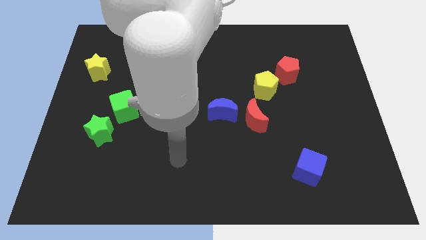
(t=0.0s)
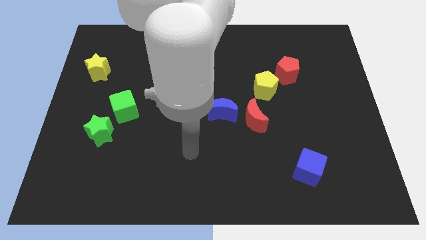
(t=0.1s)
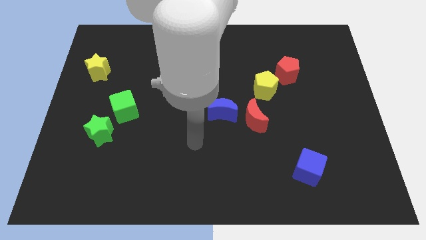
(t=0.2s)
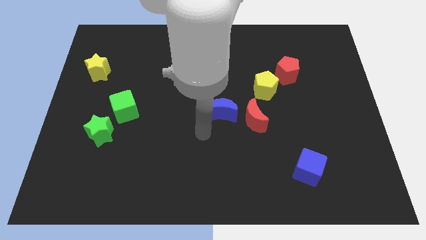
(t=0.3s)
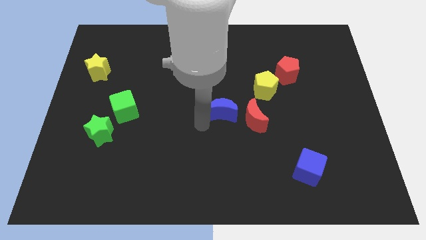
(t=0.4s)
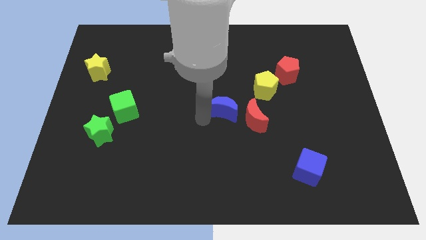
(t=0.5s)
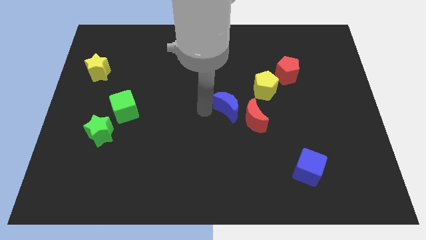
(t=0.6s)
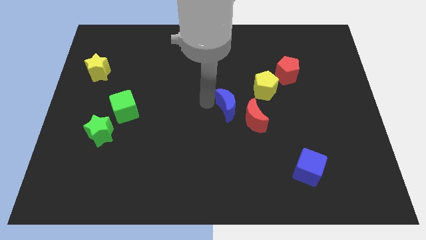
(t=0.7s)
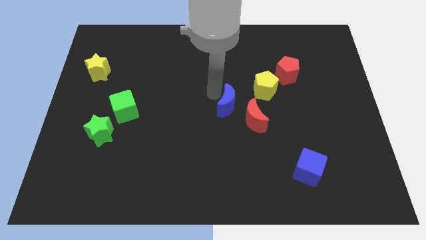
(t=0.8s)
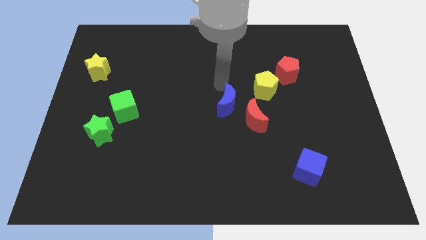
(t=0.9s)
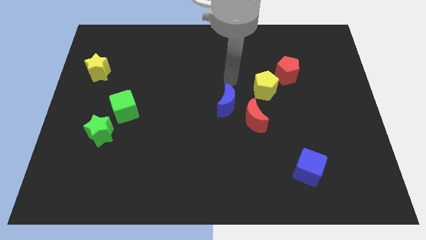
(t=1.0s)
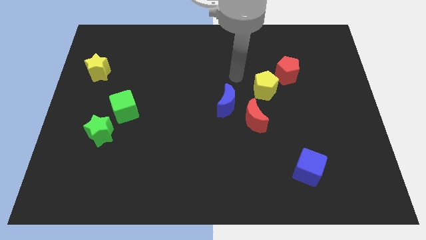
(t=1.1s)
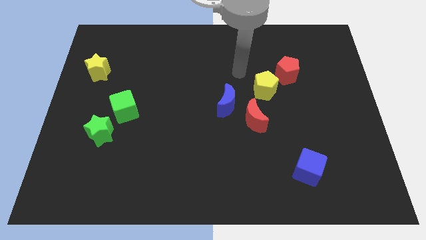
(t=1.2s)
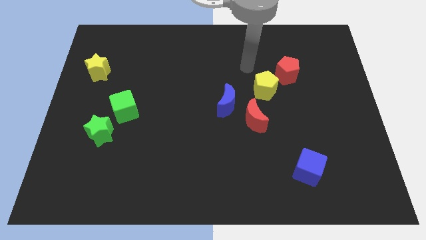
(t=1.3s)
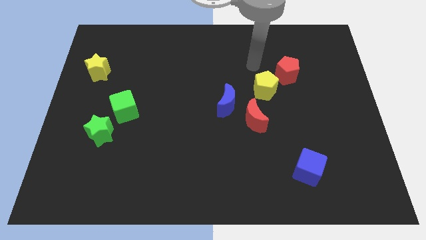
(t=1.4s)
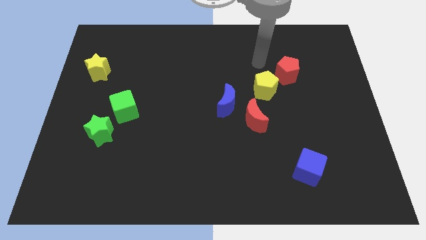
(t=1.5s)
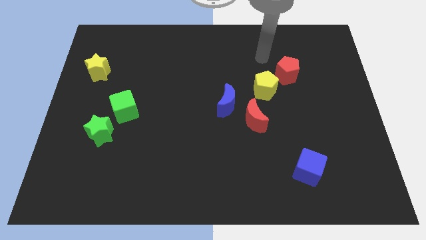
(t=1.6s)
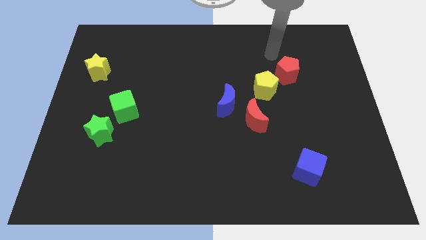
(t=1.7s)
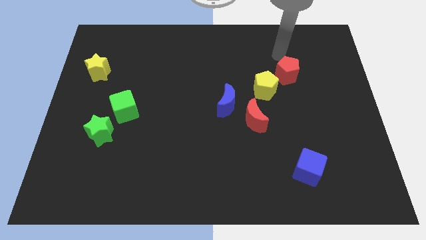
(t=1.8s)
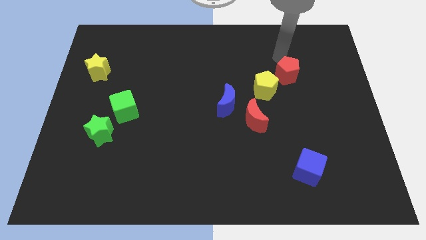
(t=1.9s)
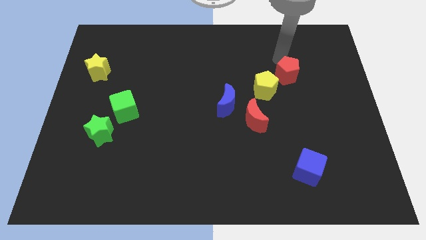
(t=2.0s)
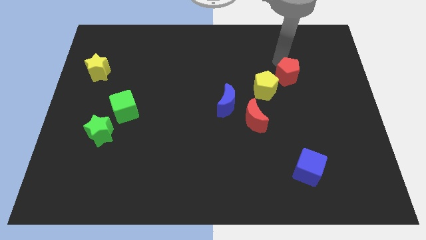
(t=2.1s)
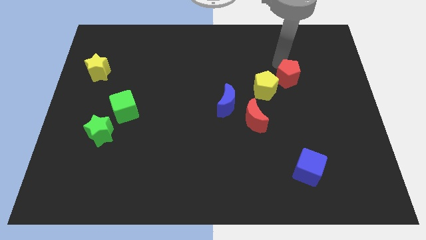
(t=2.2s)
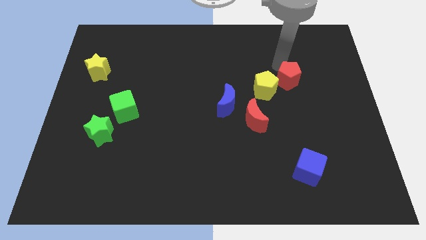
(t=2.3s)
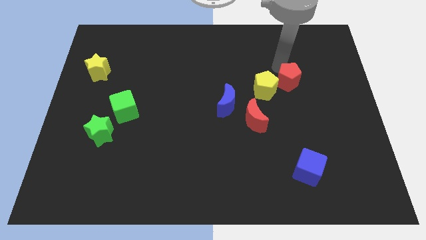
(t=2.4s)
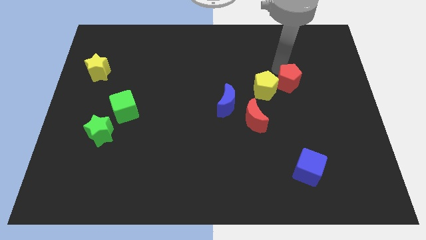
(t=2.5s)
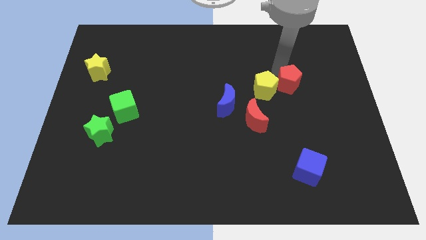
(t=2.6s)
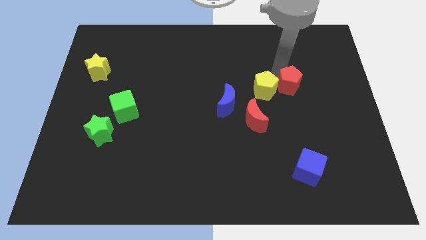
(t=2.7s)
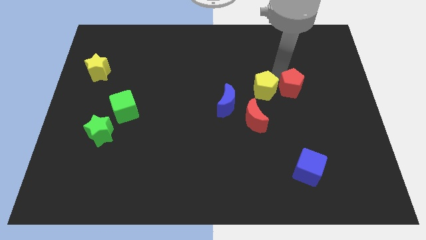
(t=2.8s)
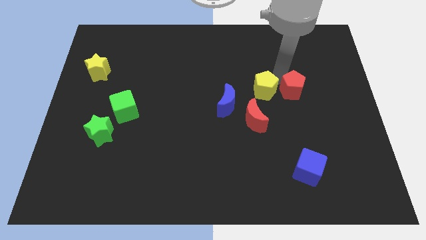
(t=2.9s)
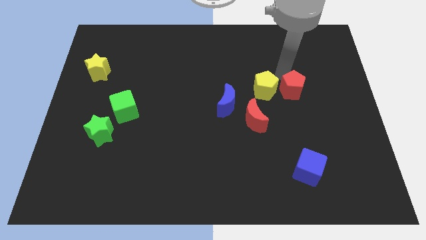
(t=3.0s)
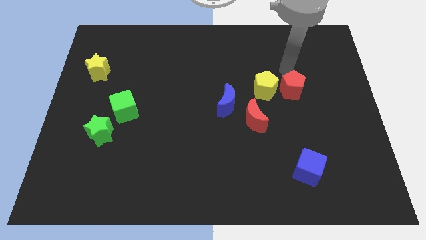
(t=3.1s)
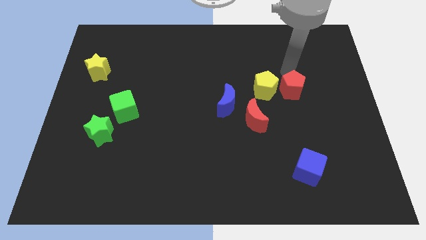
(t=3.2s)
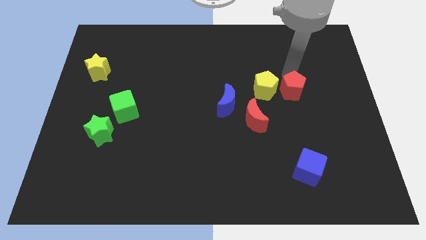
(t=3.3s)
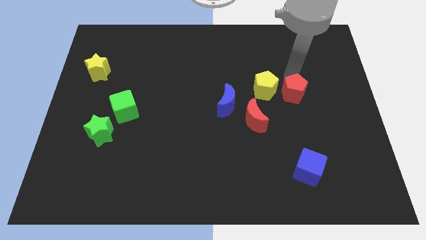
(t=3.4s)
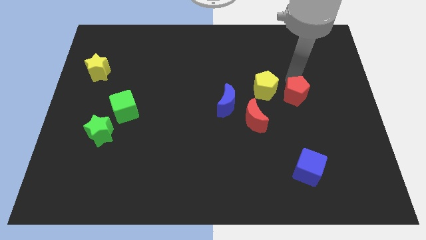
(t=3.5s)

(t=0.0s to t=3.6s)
push the red pentagon a little downwards

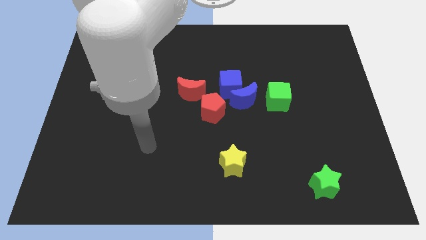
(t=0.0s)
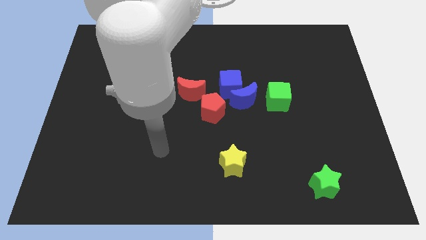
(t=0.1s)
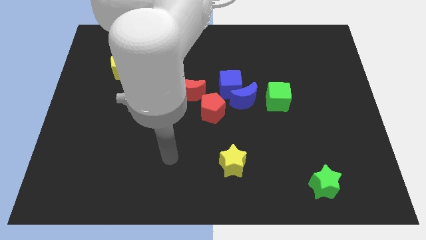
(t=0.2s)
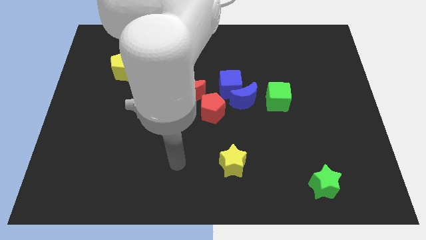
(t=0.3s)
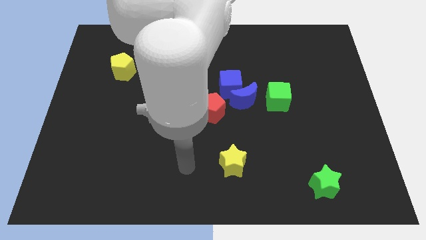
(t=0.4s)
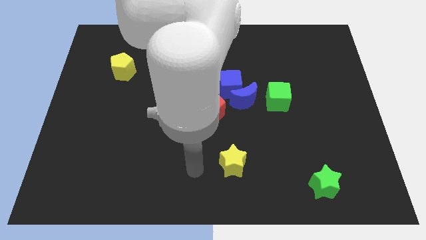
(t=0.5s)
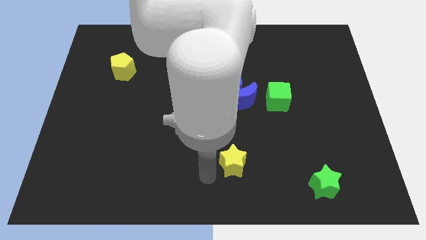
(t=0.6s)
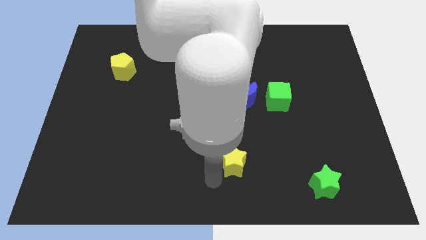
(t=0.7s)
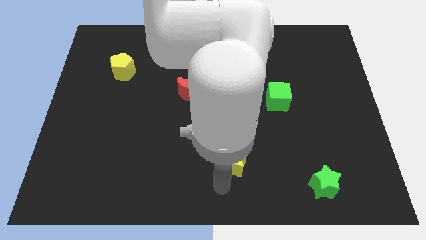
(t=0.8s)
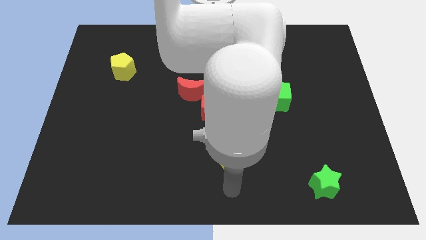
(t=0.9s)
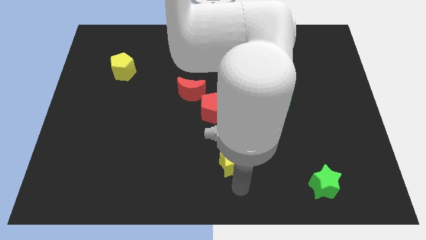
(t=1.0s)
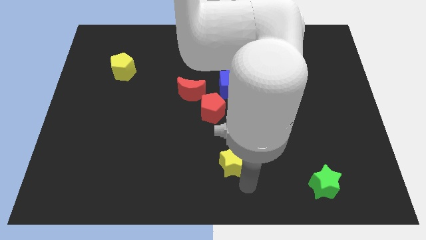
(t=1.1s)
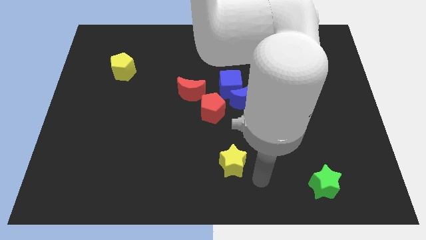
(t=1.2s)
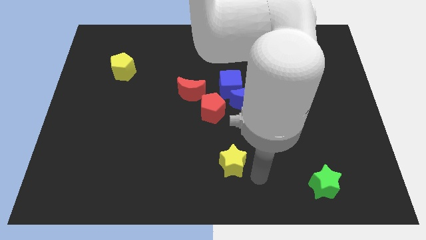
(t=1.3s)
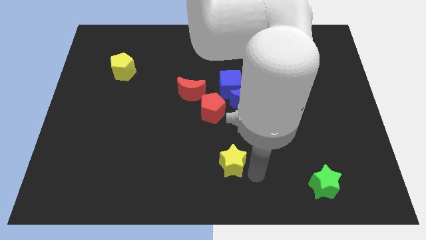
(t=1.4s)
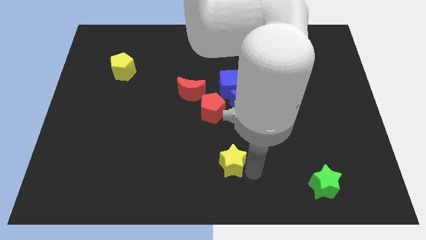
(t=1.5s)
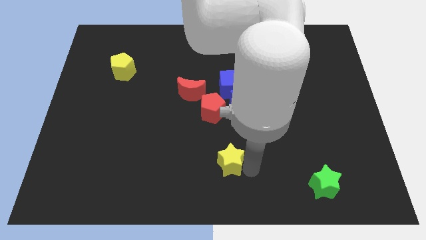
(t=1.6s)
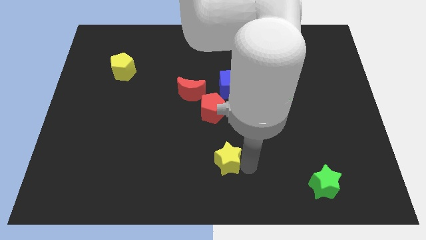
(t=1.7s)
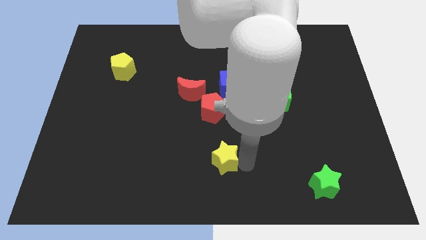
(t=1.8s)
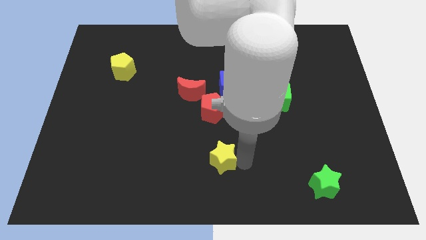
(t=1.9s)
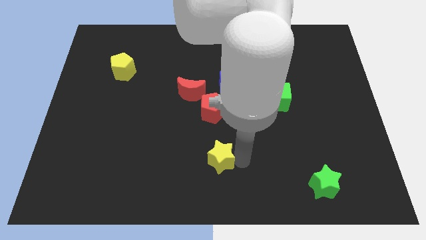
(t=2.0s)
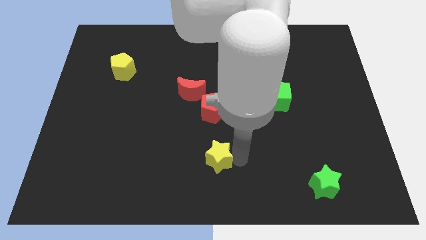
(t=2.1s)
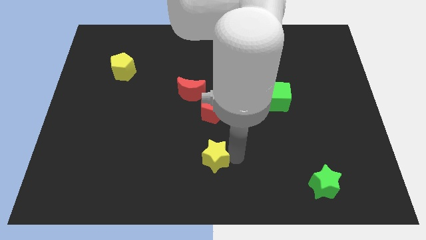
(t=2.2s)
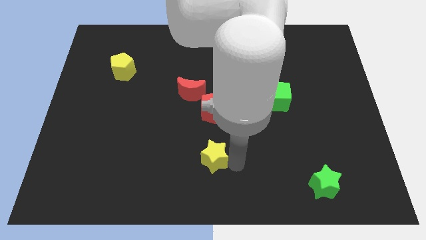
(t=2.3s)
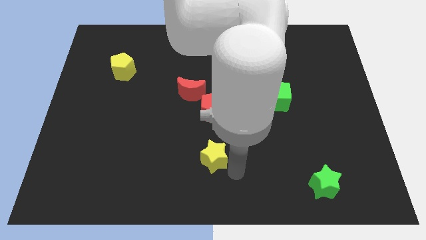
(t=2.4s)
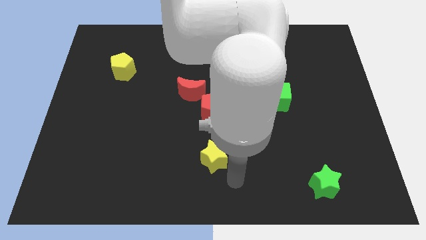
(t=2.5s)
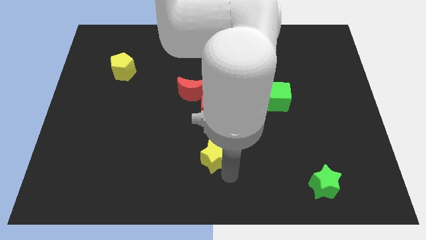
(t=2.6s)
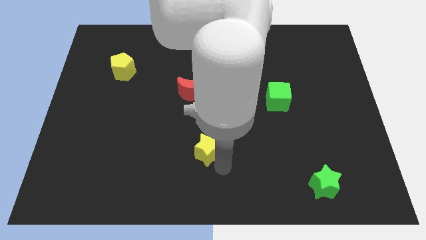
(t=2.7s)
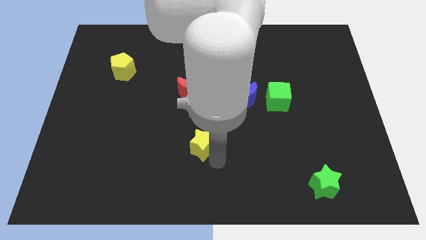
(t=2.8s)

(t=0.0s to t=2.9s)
slightly slide the yellow star upwards and to the left diagonally

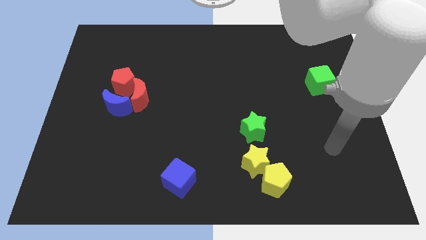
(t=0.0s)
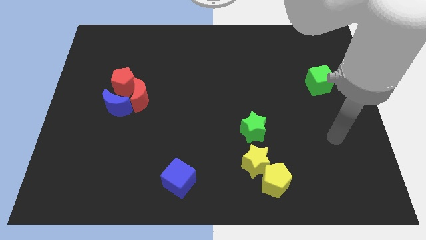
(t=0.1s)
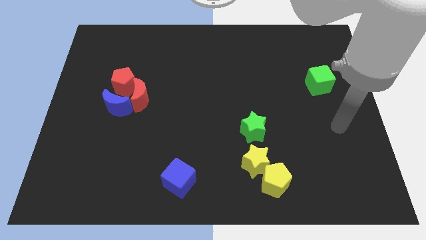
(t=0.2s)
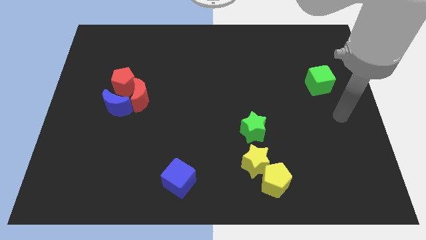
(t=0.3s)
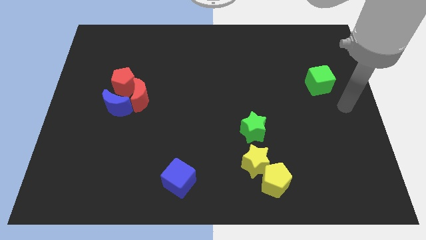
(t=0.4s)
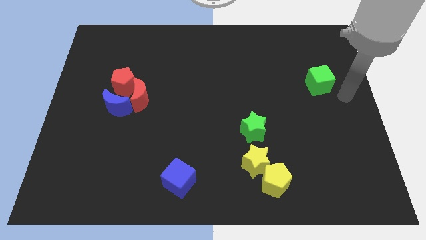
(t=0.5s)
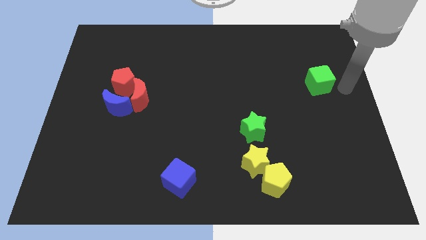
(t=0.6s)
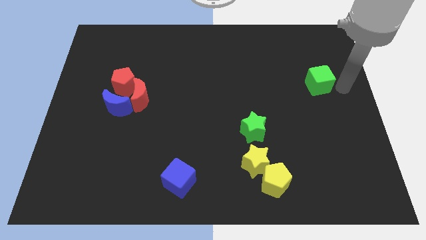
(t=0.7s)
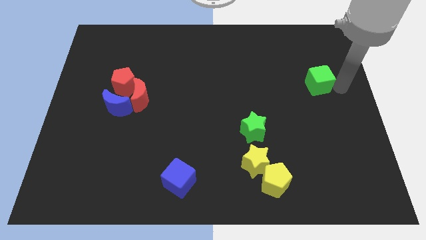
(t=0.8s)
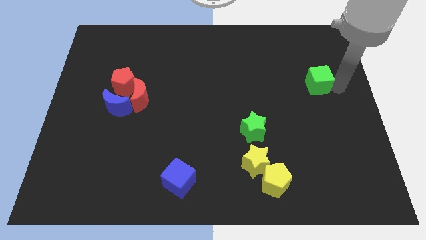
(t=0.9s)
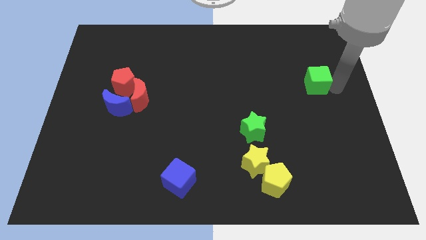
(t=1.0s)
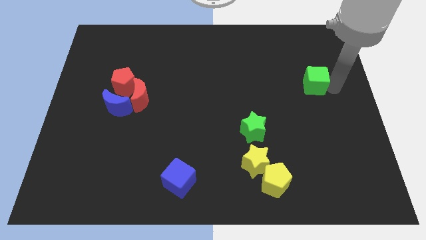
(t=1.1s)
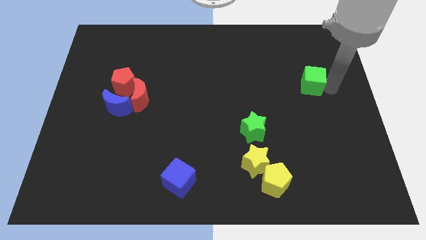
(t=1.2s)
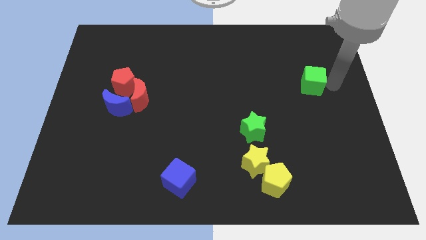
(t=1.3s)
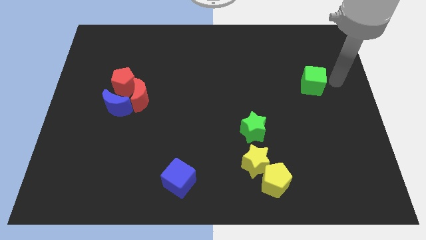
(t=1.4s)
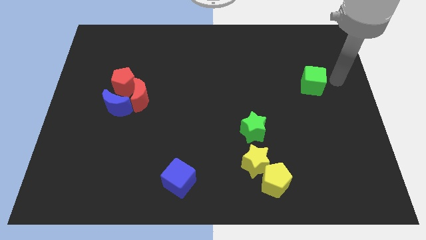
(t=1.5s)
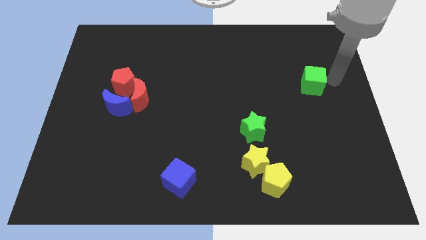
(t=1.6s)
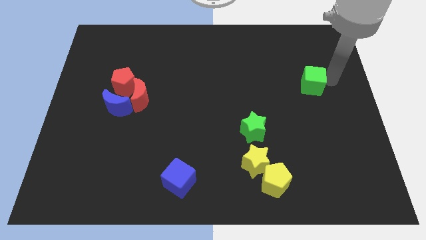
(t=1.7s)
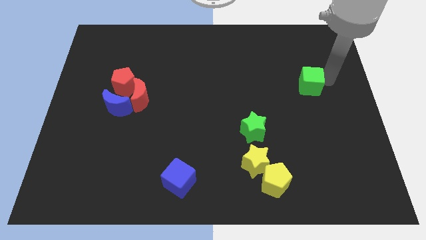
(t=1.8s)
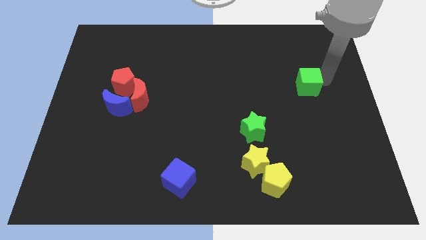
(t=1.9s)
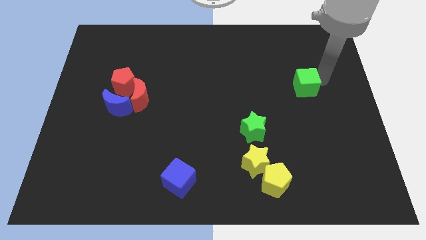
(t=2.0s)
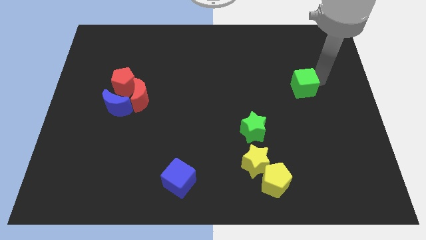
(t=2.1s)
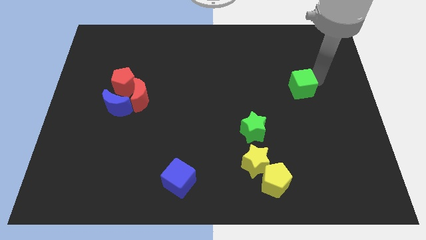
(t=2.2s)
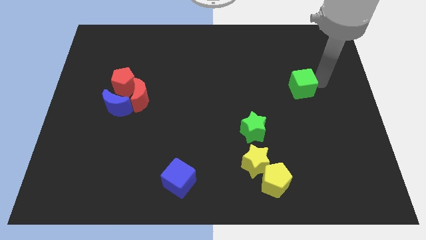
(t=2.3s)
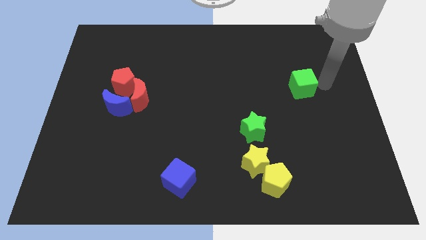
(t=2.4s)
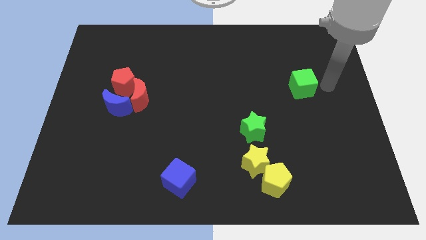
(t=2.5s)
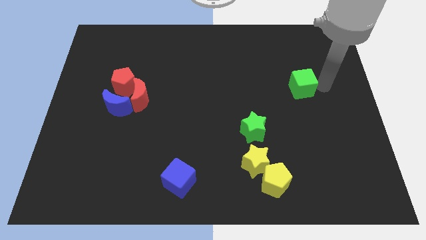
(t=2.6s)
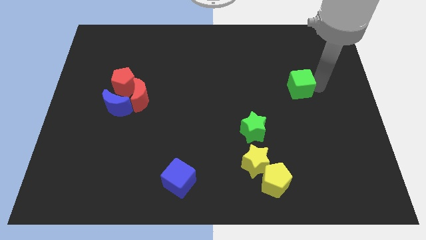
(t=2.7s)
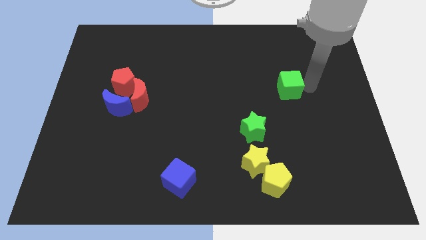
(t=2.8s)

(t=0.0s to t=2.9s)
slide the green cube slightly to the left
